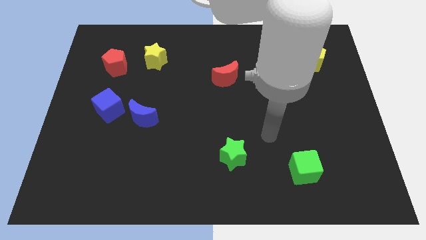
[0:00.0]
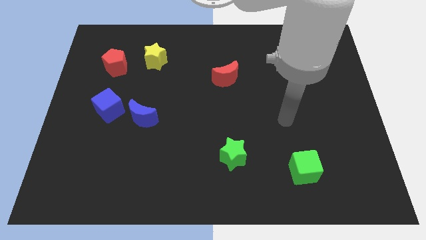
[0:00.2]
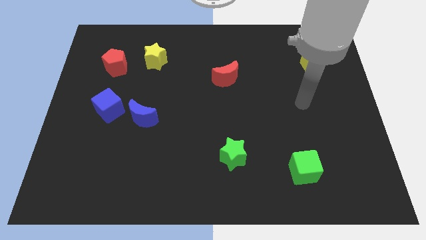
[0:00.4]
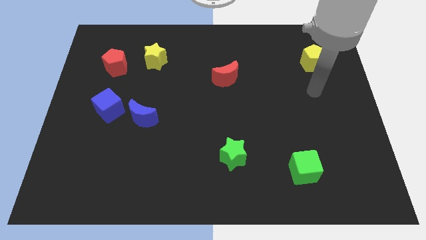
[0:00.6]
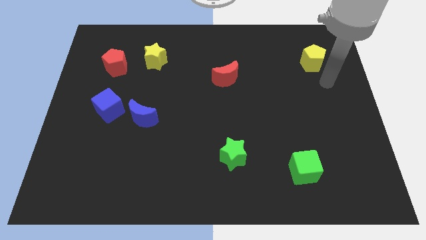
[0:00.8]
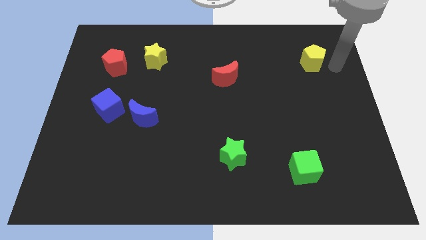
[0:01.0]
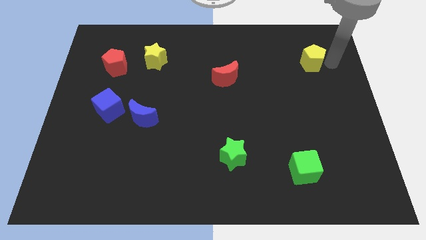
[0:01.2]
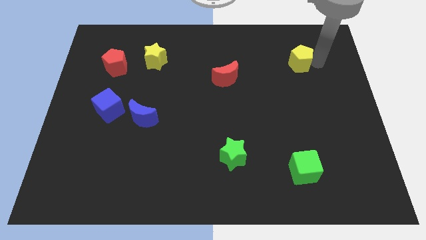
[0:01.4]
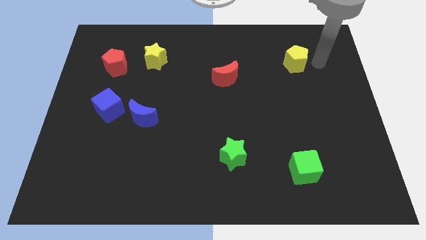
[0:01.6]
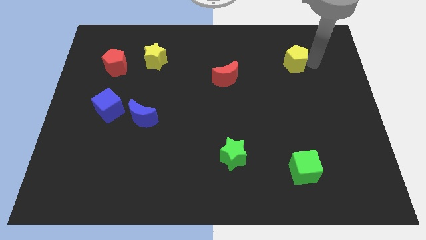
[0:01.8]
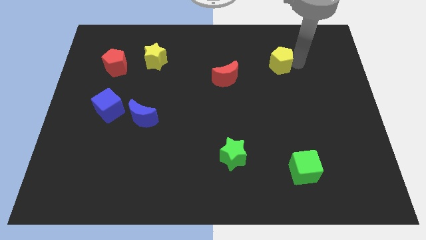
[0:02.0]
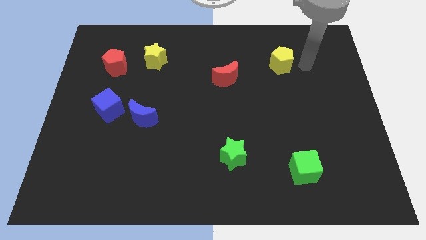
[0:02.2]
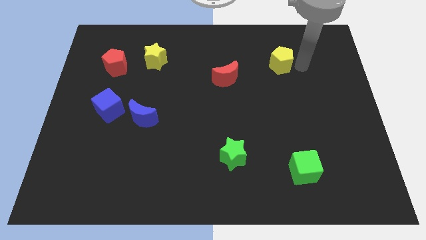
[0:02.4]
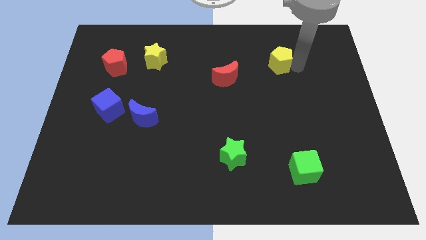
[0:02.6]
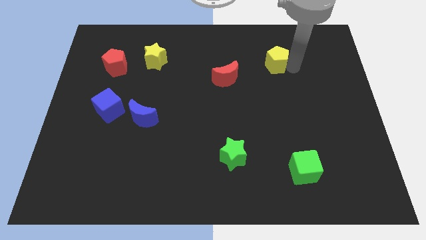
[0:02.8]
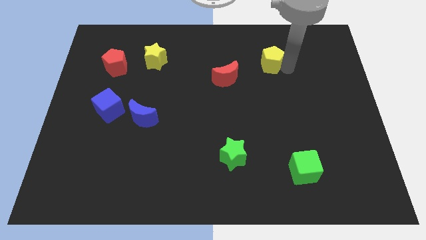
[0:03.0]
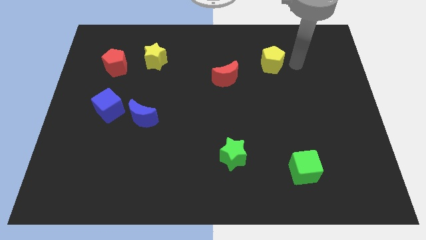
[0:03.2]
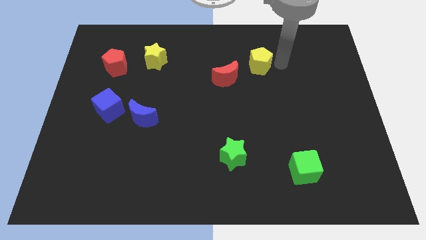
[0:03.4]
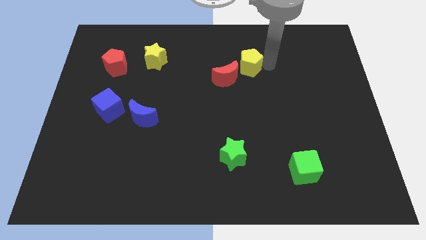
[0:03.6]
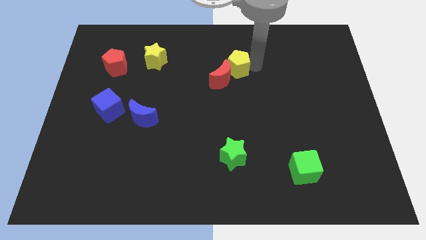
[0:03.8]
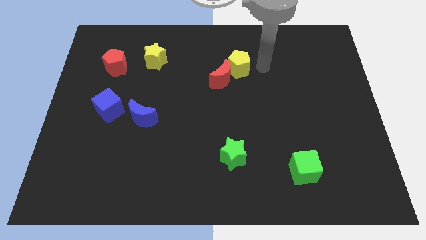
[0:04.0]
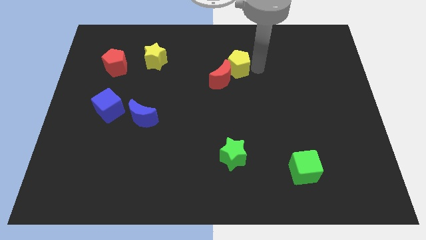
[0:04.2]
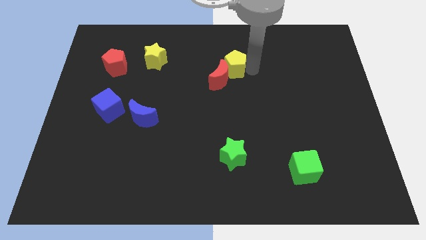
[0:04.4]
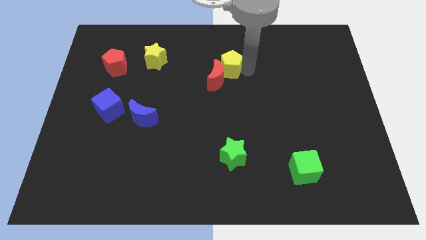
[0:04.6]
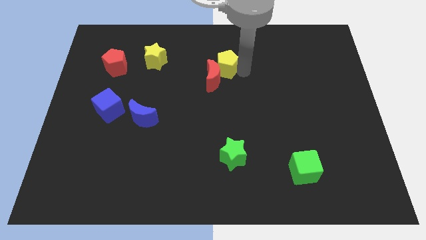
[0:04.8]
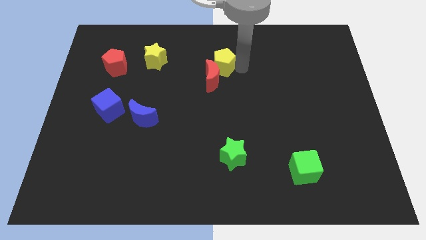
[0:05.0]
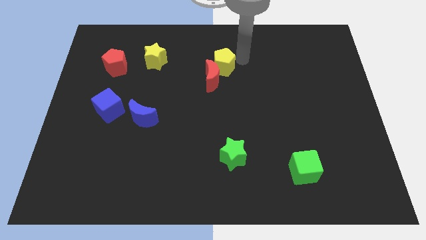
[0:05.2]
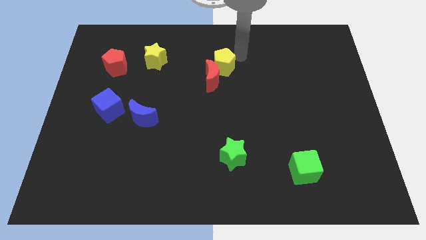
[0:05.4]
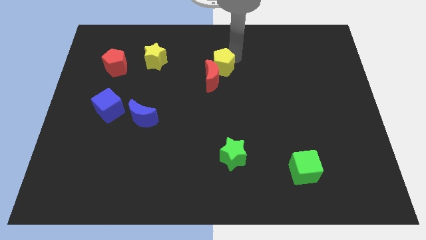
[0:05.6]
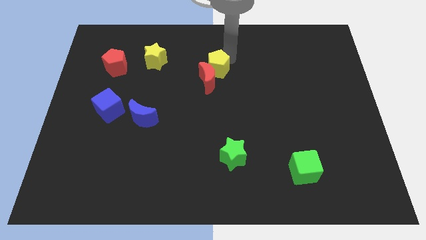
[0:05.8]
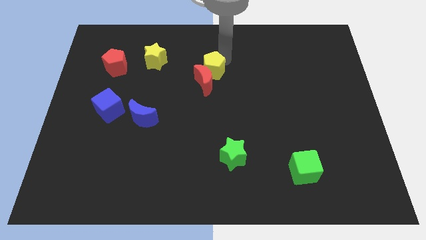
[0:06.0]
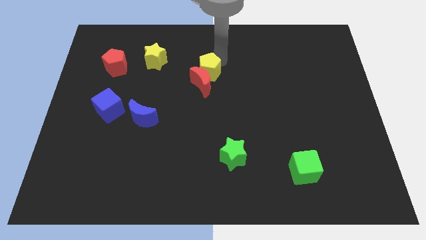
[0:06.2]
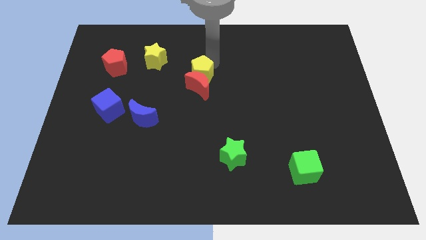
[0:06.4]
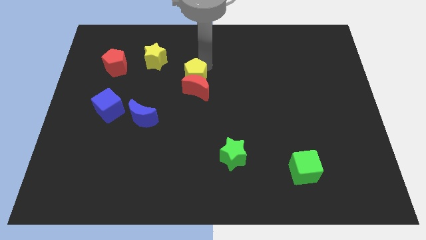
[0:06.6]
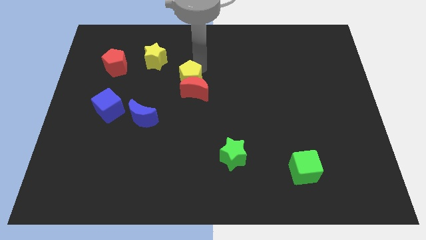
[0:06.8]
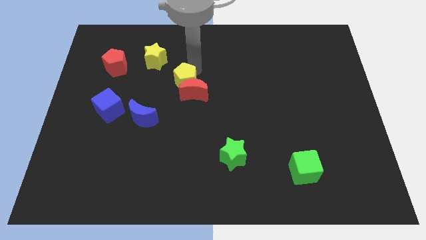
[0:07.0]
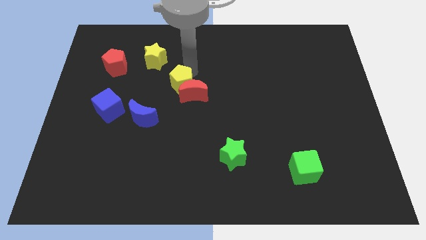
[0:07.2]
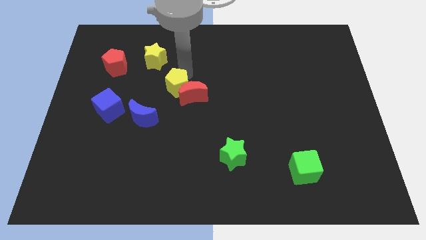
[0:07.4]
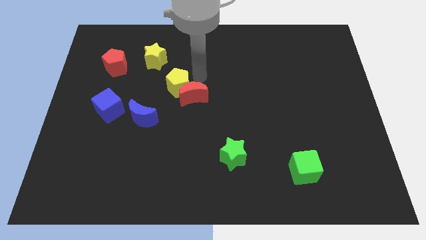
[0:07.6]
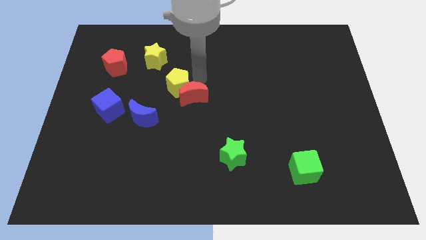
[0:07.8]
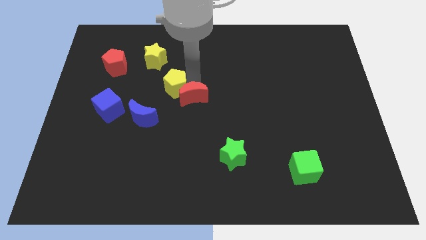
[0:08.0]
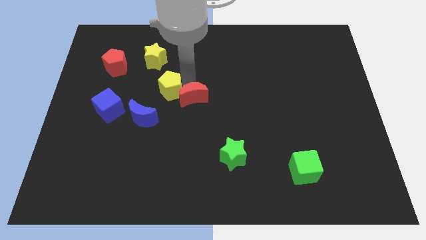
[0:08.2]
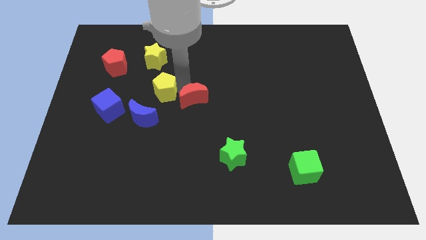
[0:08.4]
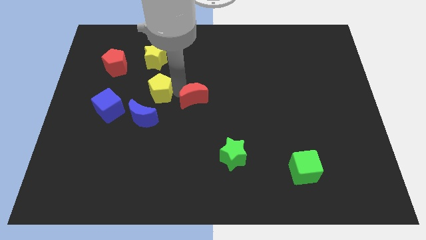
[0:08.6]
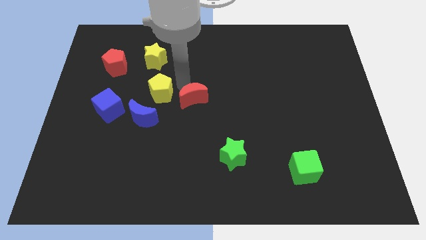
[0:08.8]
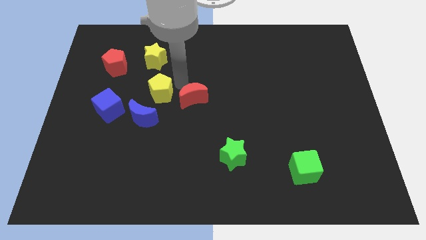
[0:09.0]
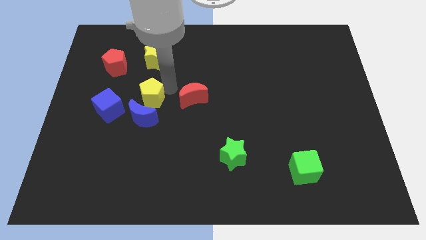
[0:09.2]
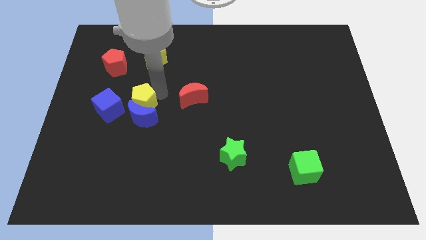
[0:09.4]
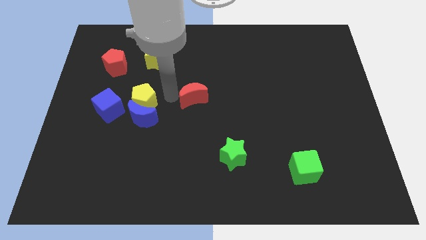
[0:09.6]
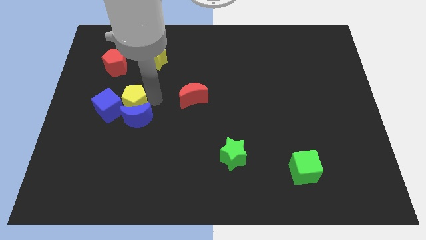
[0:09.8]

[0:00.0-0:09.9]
slide the yellow pentagon towards the blue cube

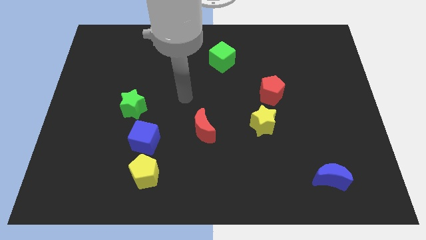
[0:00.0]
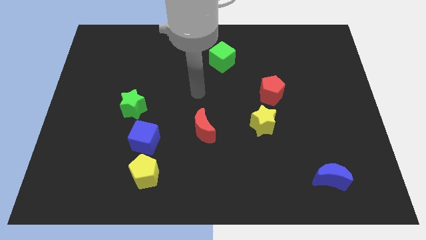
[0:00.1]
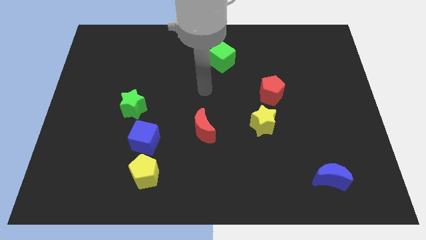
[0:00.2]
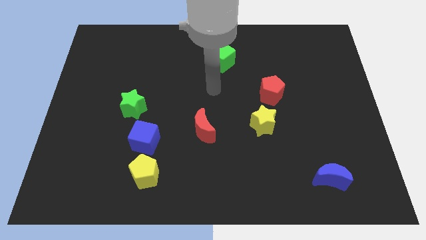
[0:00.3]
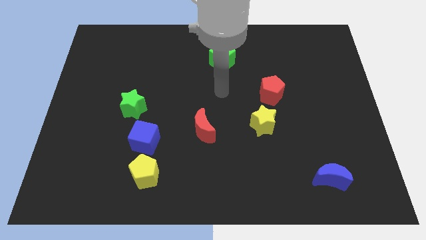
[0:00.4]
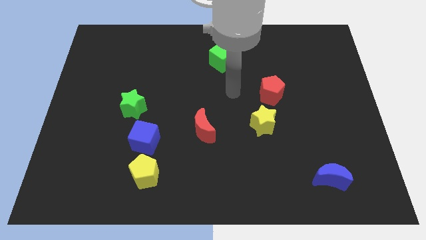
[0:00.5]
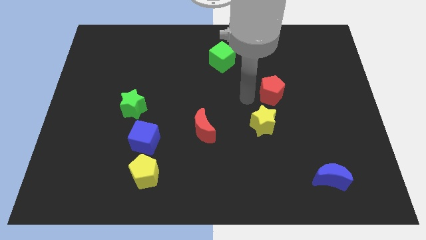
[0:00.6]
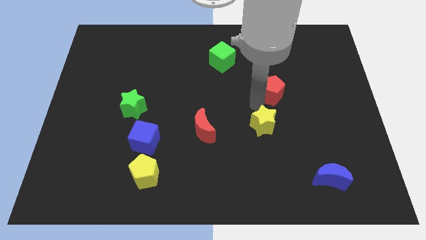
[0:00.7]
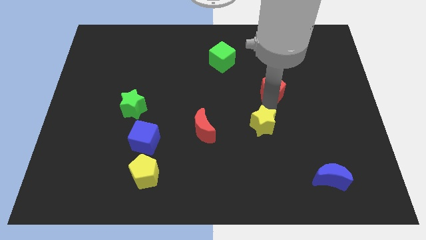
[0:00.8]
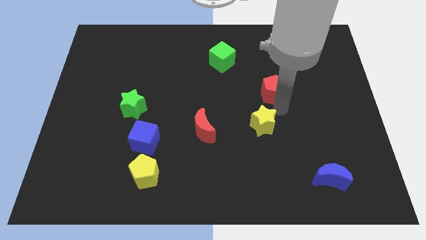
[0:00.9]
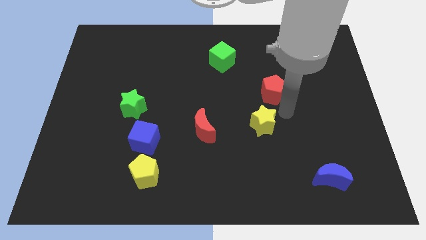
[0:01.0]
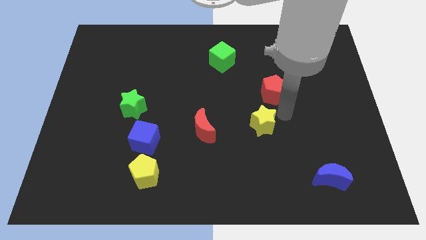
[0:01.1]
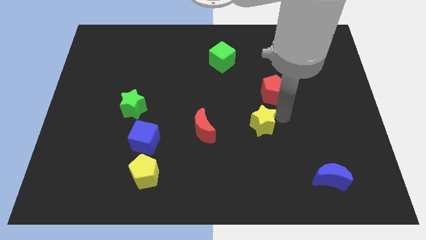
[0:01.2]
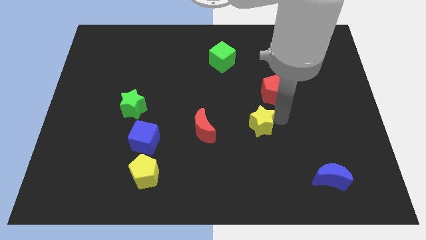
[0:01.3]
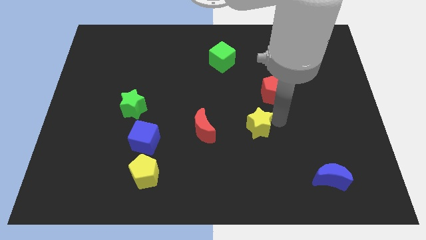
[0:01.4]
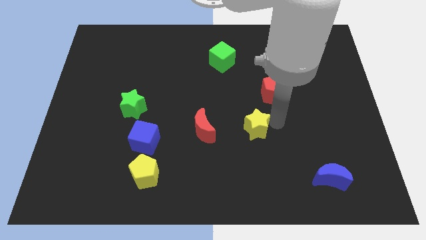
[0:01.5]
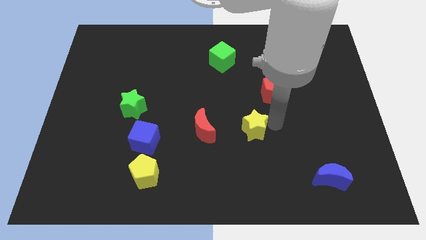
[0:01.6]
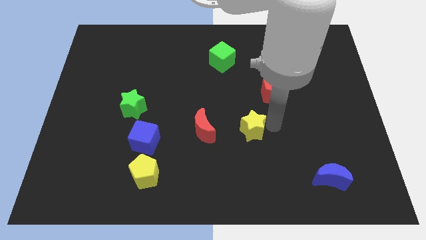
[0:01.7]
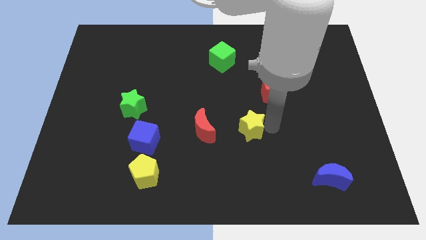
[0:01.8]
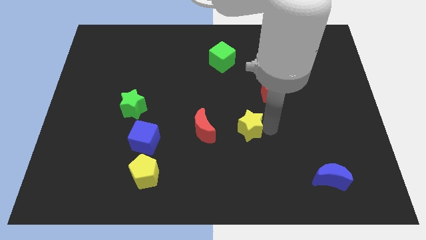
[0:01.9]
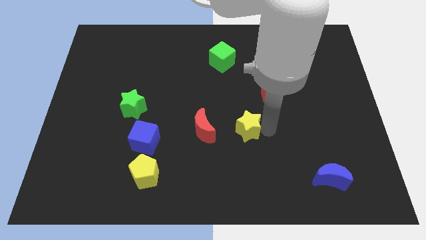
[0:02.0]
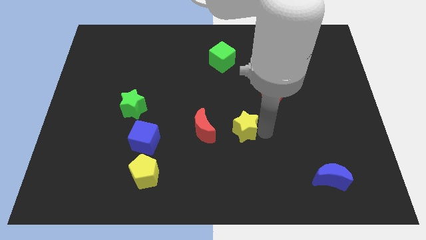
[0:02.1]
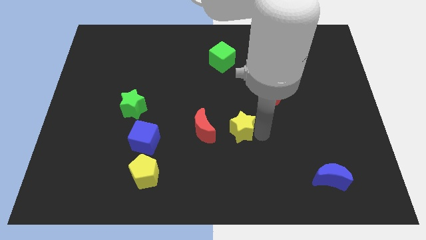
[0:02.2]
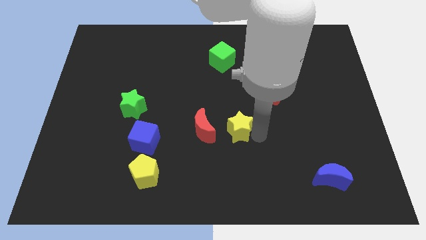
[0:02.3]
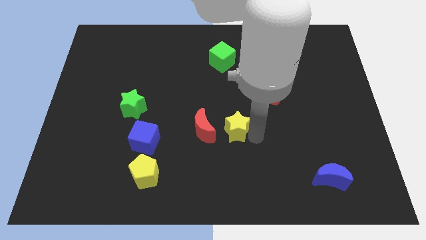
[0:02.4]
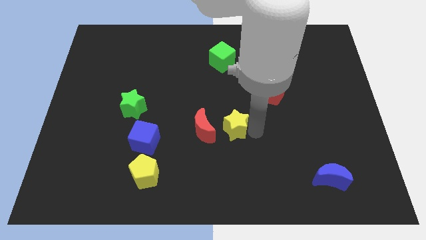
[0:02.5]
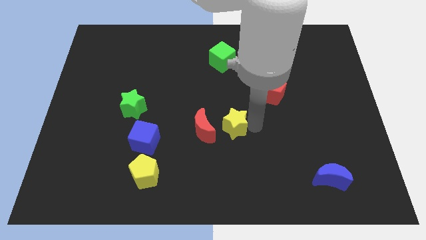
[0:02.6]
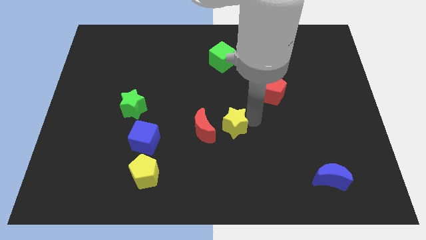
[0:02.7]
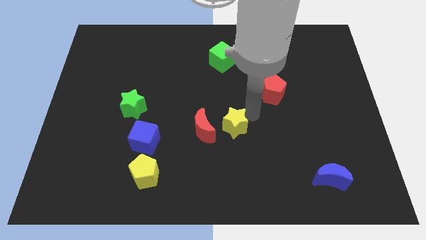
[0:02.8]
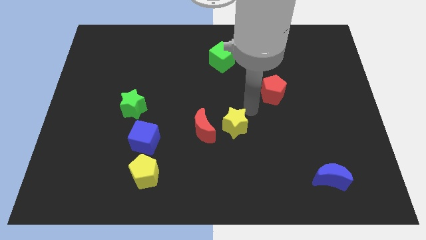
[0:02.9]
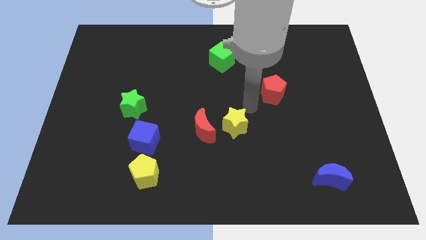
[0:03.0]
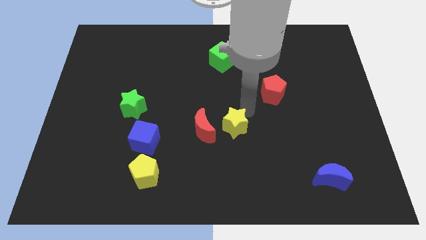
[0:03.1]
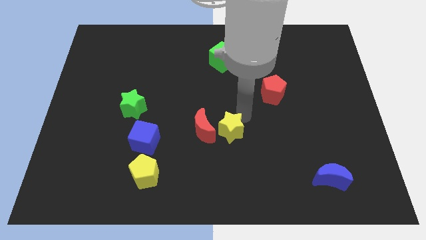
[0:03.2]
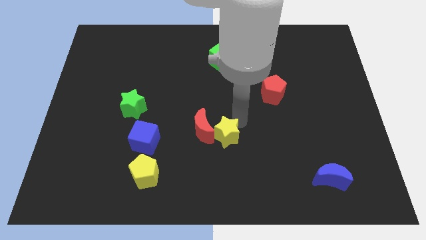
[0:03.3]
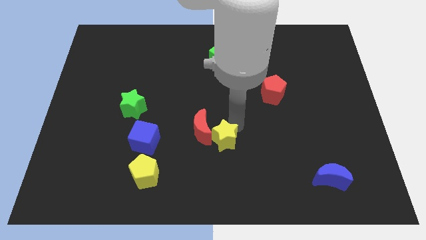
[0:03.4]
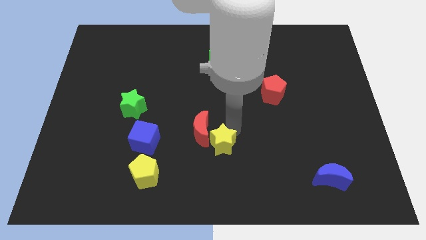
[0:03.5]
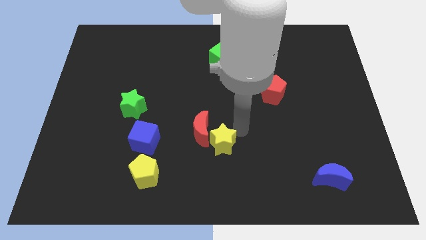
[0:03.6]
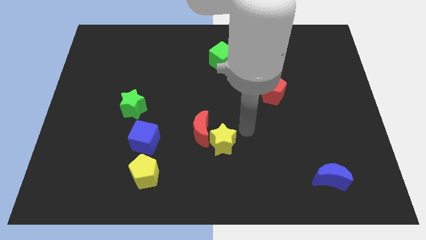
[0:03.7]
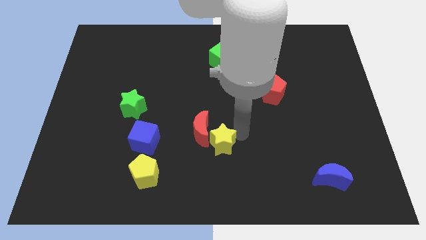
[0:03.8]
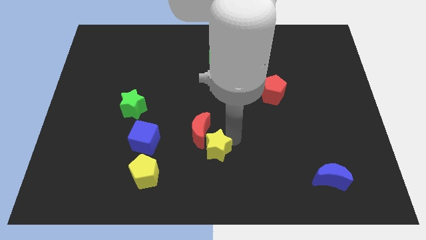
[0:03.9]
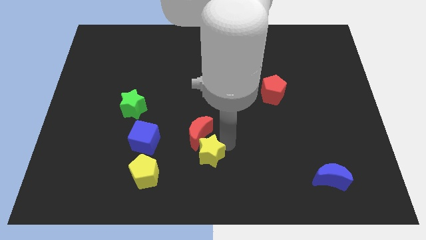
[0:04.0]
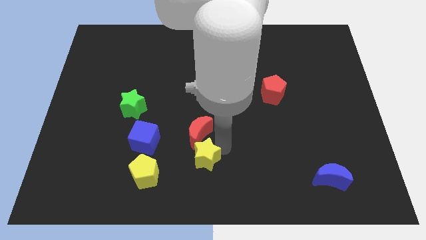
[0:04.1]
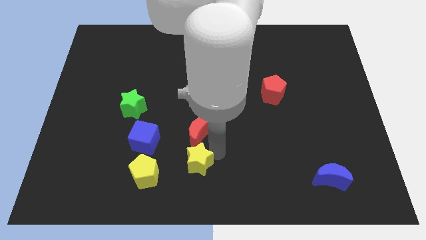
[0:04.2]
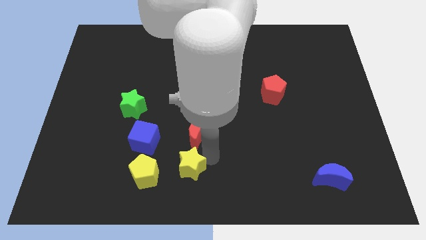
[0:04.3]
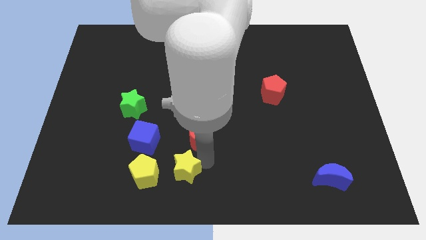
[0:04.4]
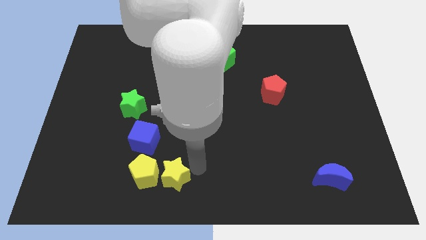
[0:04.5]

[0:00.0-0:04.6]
put the yellow star to the yellow pentagon
